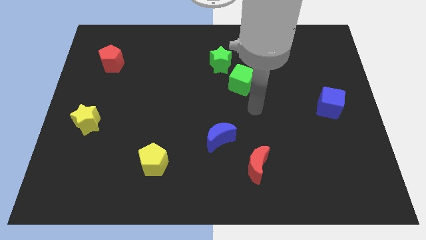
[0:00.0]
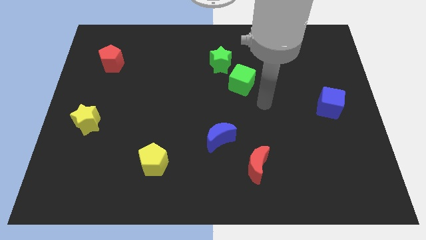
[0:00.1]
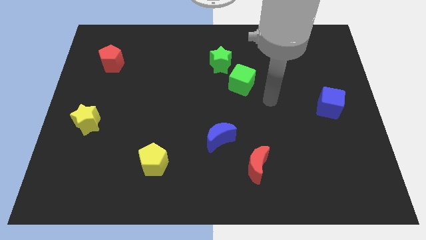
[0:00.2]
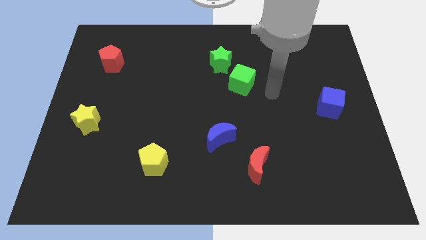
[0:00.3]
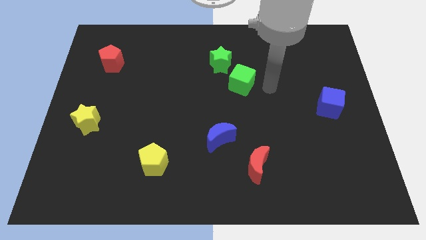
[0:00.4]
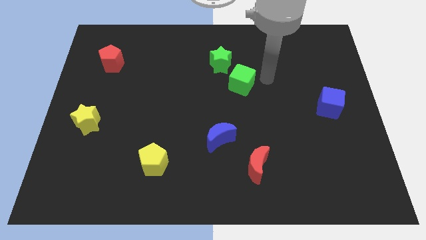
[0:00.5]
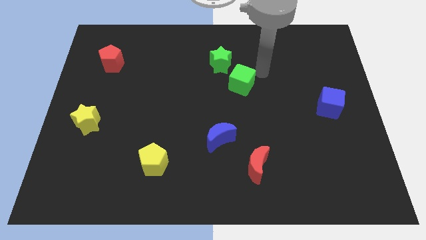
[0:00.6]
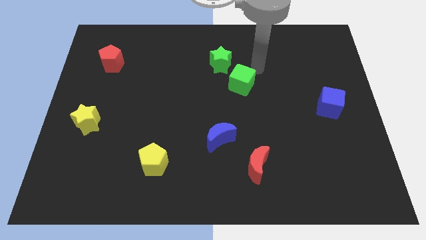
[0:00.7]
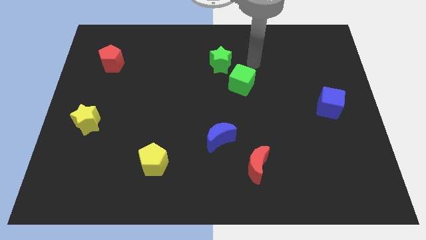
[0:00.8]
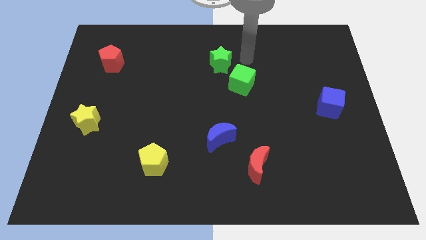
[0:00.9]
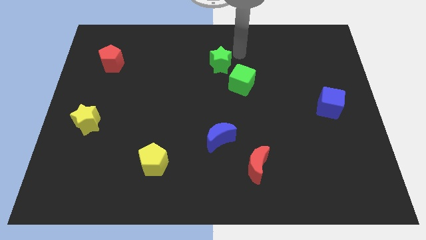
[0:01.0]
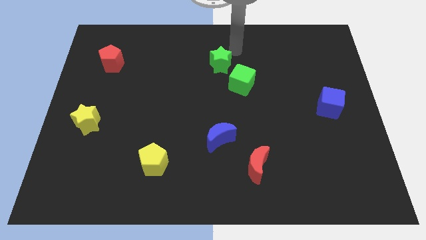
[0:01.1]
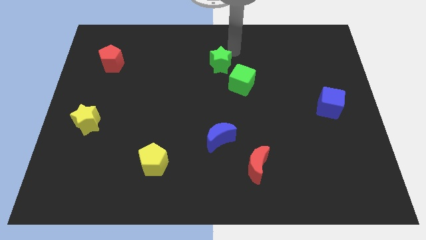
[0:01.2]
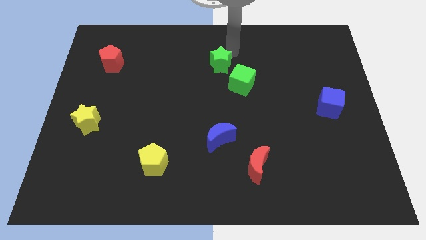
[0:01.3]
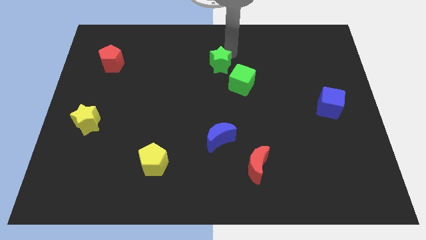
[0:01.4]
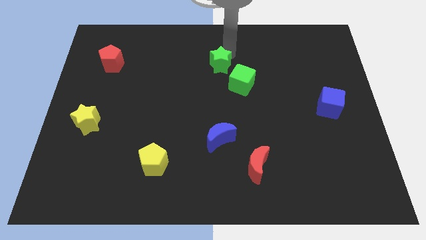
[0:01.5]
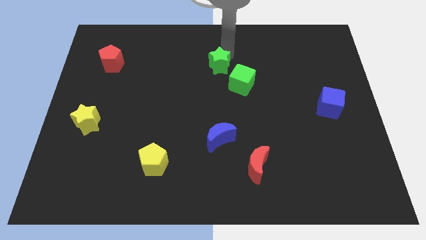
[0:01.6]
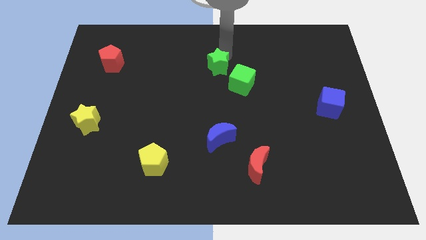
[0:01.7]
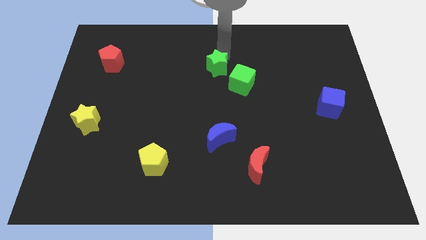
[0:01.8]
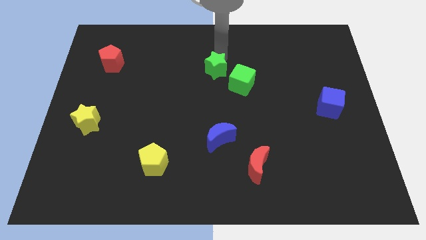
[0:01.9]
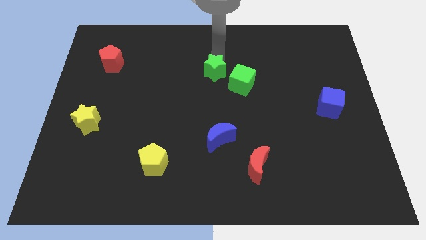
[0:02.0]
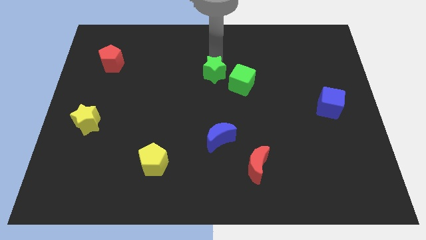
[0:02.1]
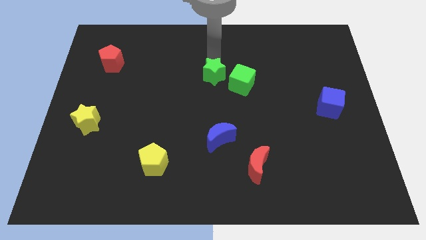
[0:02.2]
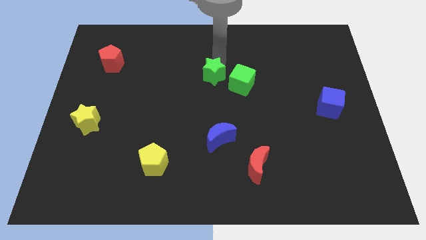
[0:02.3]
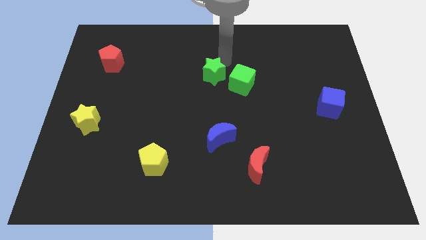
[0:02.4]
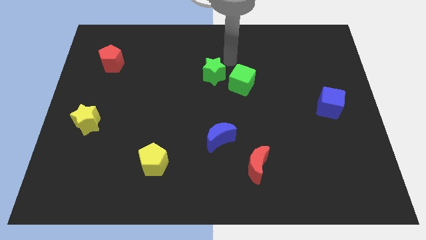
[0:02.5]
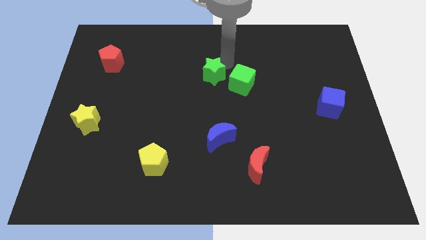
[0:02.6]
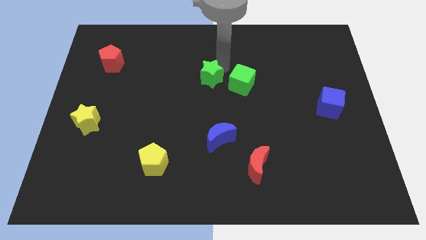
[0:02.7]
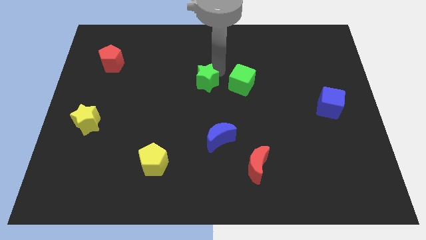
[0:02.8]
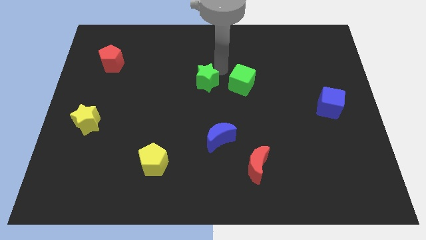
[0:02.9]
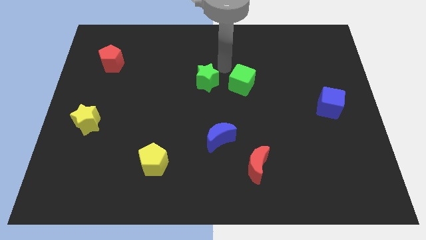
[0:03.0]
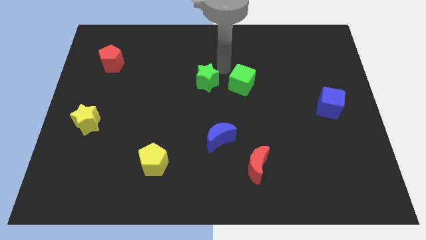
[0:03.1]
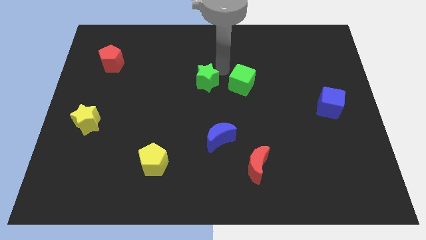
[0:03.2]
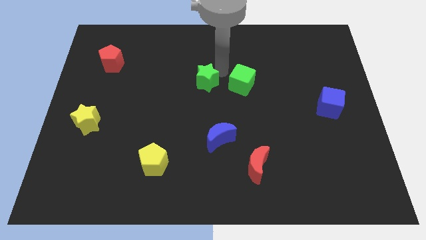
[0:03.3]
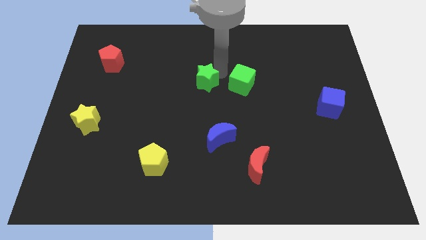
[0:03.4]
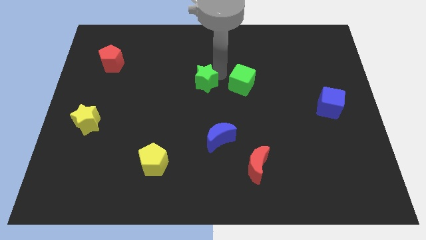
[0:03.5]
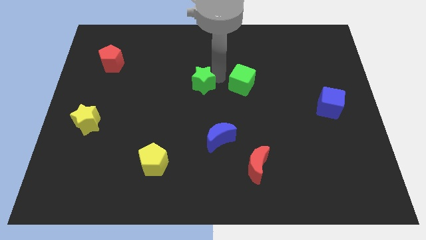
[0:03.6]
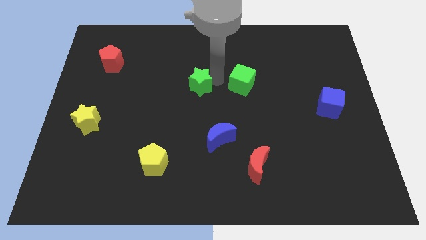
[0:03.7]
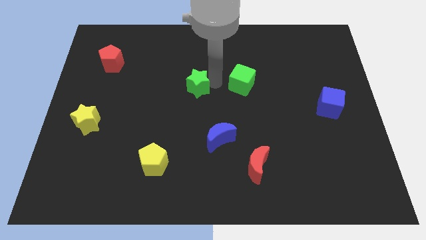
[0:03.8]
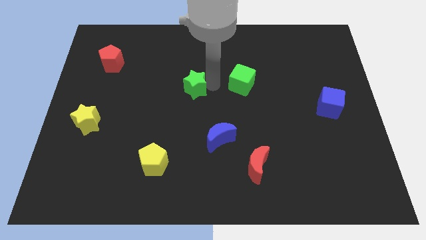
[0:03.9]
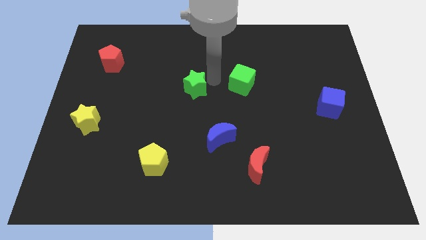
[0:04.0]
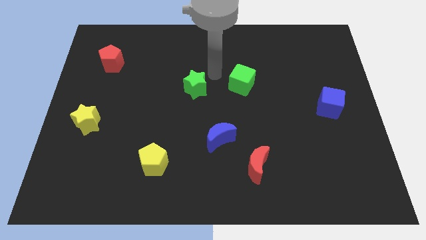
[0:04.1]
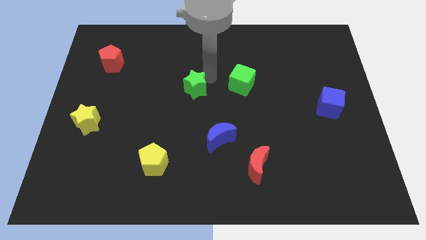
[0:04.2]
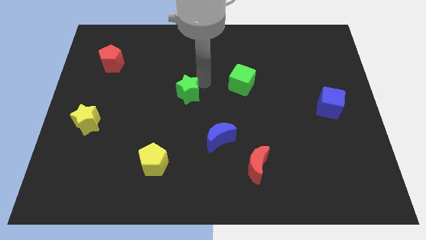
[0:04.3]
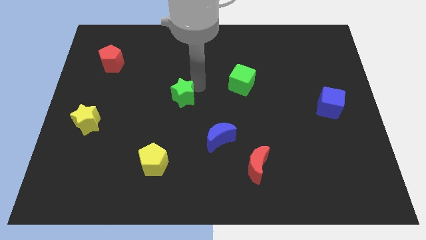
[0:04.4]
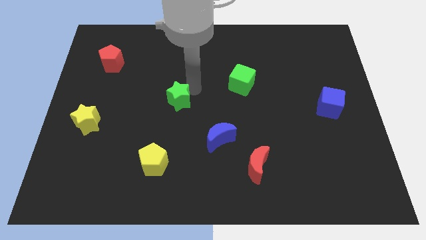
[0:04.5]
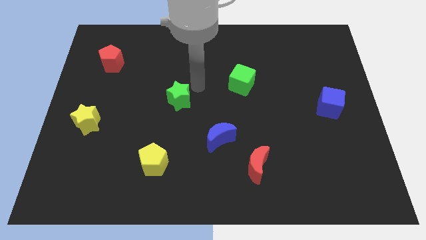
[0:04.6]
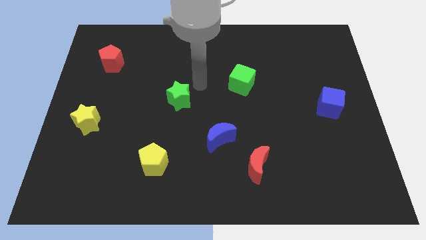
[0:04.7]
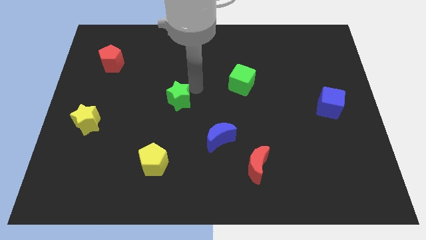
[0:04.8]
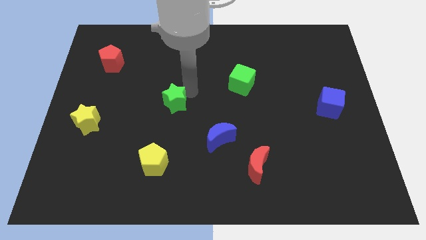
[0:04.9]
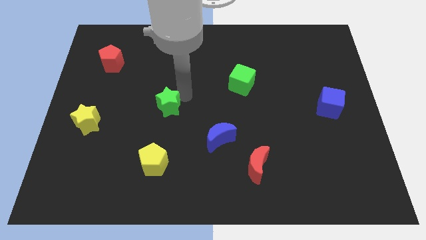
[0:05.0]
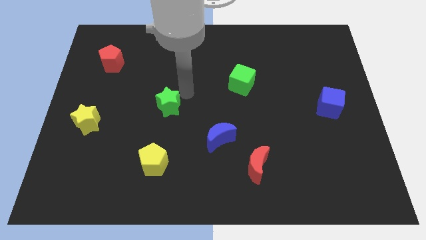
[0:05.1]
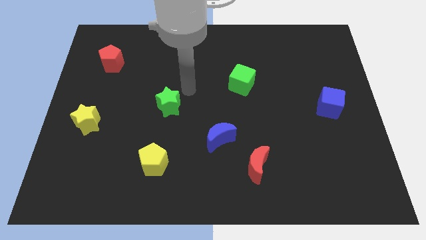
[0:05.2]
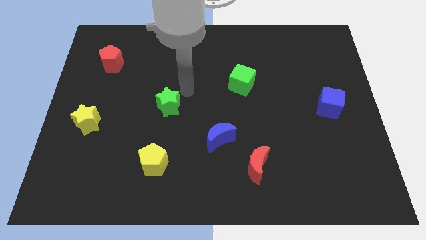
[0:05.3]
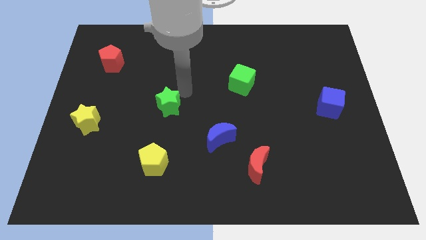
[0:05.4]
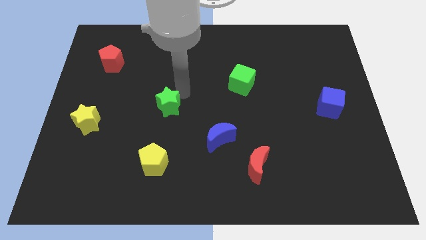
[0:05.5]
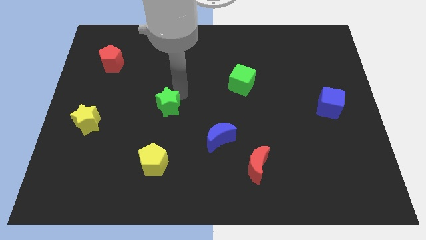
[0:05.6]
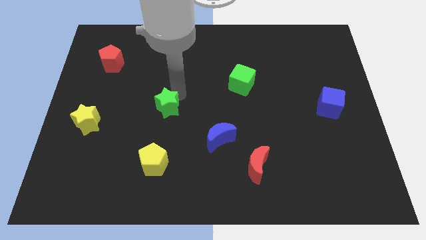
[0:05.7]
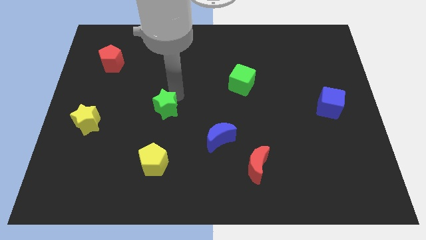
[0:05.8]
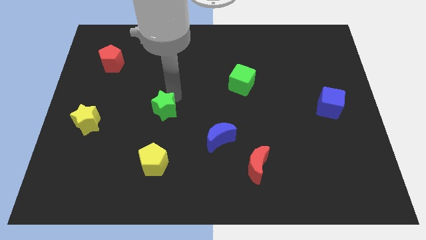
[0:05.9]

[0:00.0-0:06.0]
push the green star downwards and then to the left

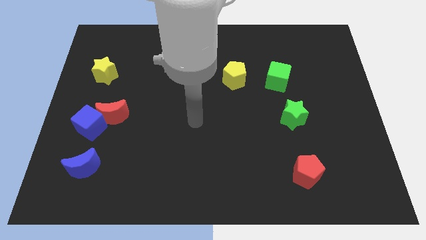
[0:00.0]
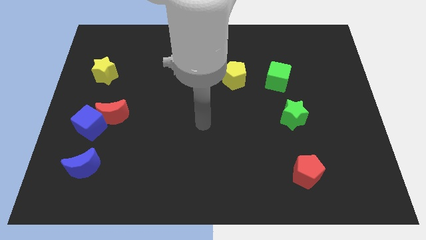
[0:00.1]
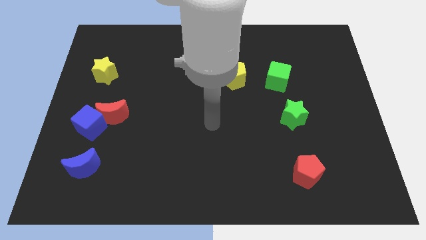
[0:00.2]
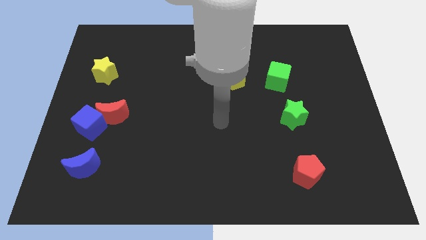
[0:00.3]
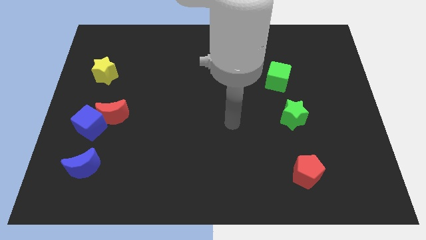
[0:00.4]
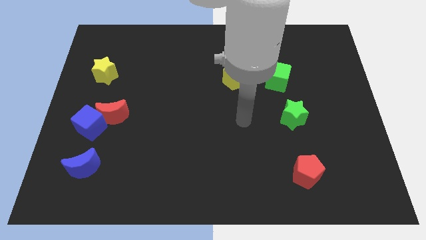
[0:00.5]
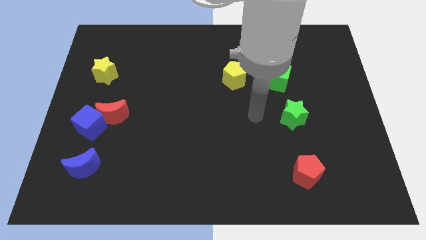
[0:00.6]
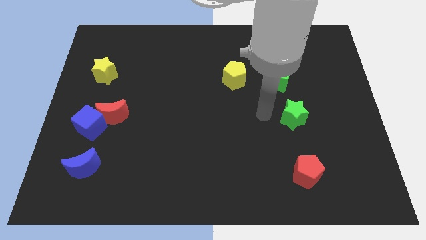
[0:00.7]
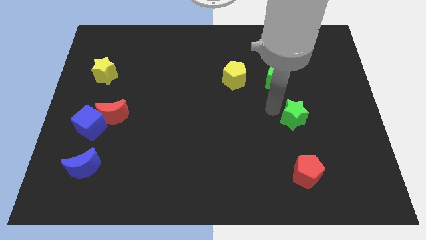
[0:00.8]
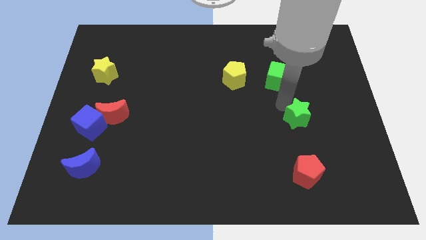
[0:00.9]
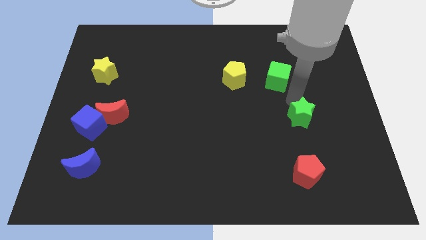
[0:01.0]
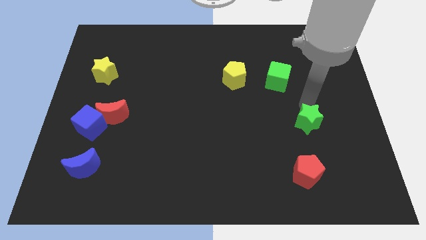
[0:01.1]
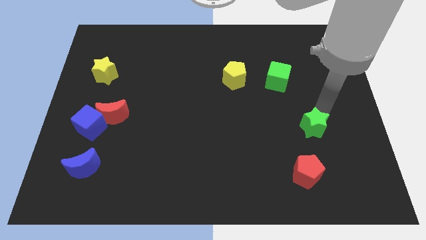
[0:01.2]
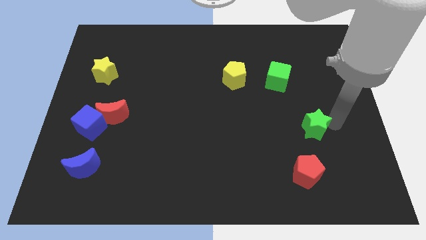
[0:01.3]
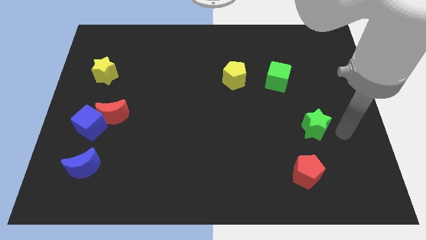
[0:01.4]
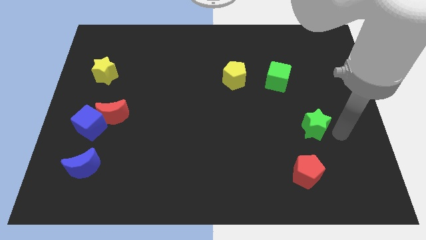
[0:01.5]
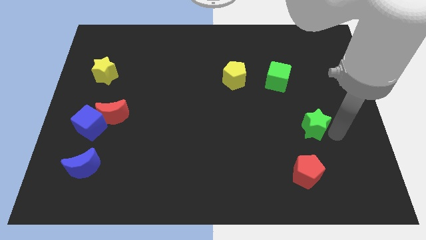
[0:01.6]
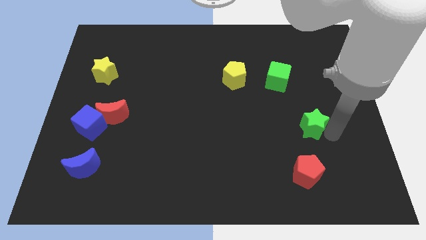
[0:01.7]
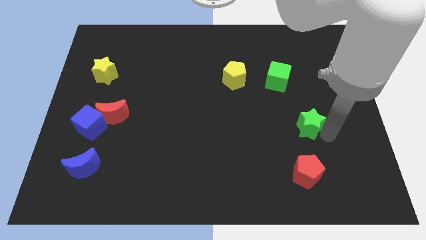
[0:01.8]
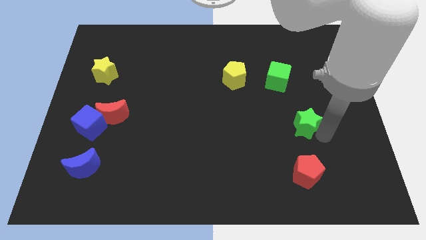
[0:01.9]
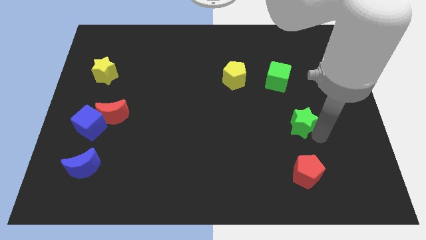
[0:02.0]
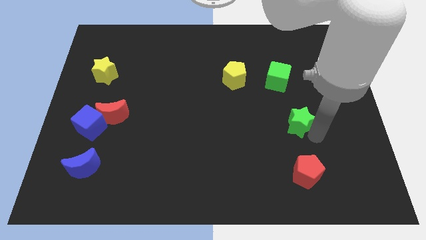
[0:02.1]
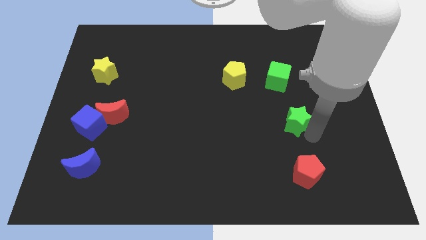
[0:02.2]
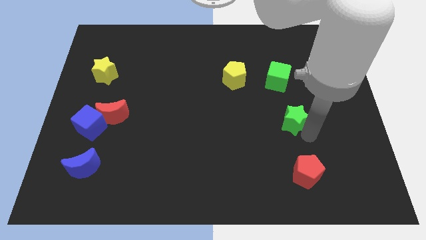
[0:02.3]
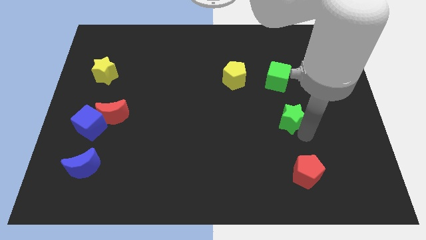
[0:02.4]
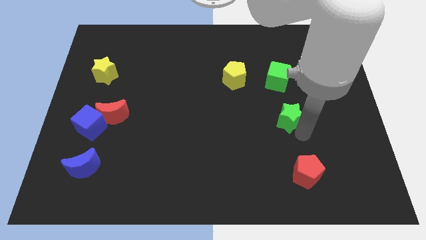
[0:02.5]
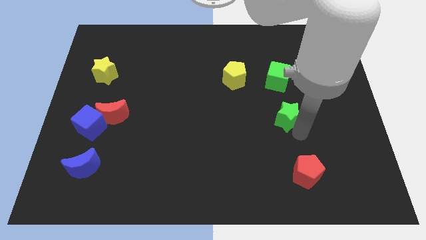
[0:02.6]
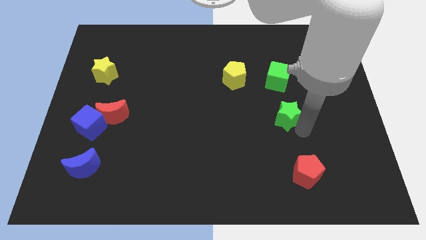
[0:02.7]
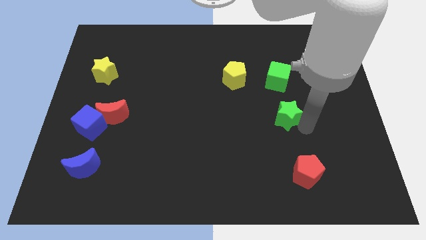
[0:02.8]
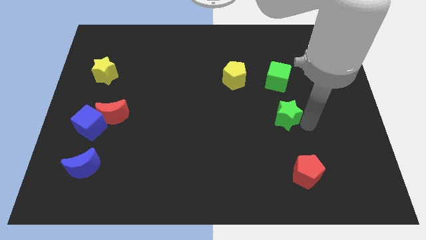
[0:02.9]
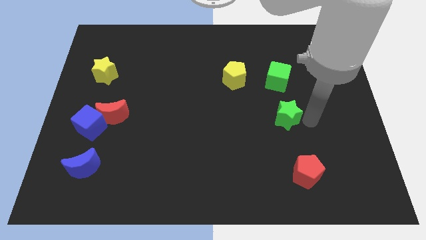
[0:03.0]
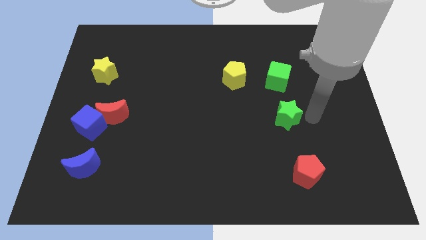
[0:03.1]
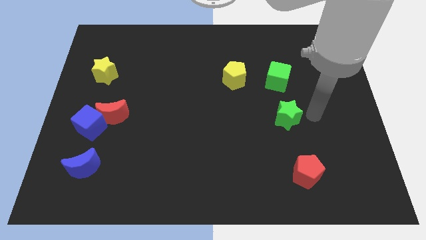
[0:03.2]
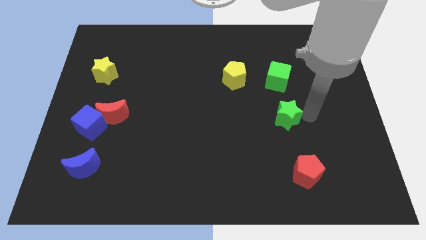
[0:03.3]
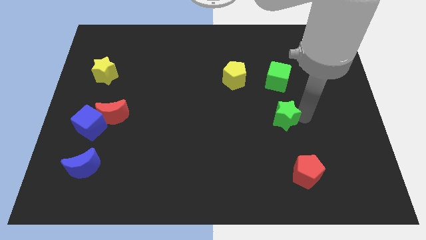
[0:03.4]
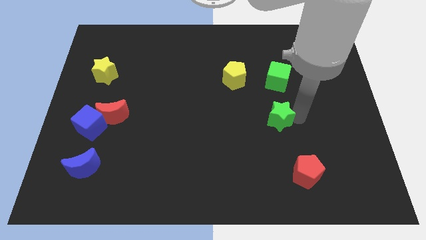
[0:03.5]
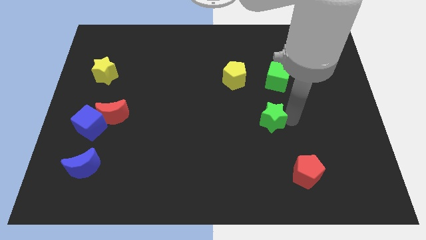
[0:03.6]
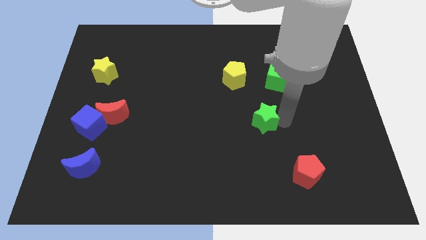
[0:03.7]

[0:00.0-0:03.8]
move the green star slightly to the left
